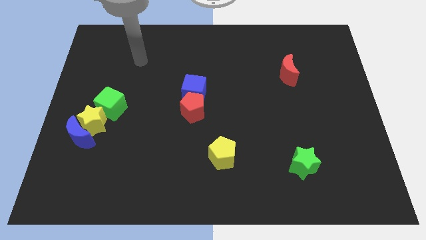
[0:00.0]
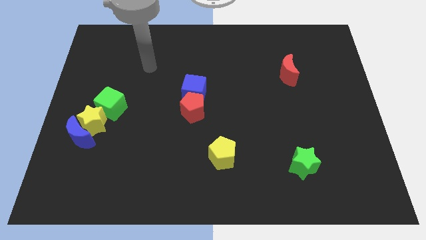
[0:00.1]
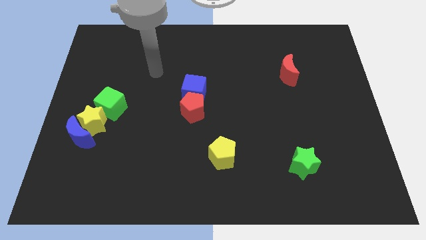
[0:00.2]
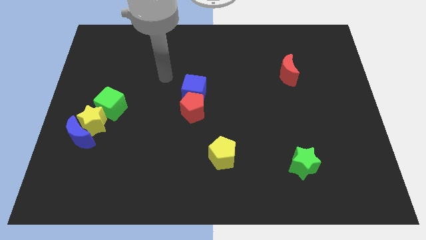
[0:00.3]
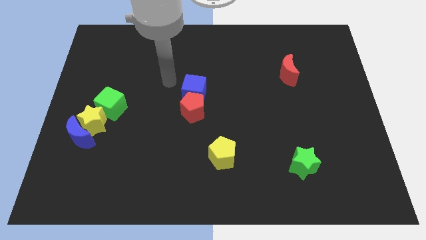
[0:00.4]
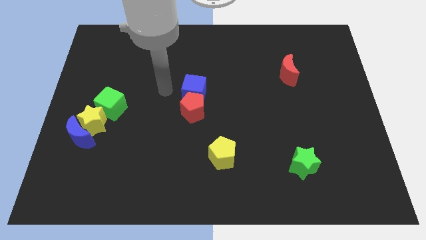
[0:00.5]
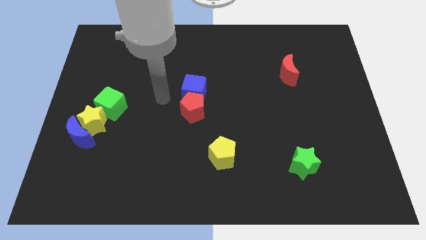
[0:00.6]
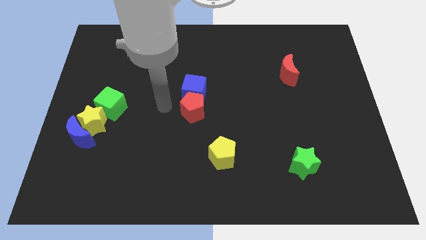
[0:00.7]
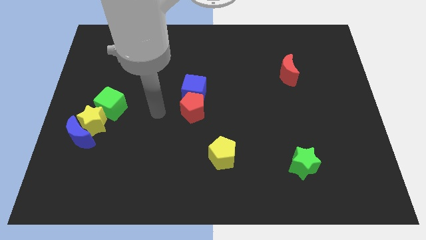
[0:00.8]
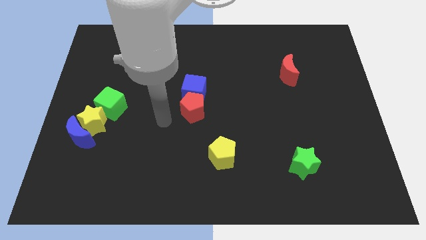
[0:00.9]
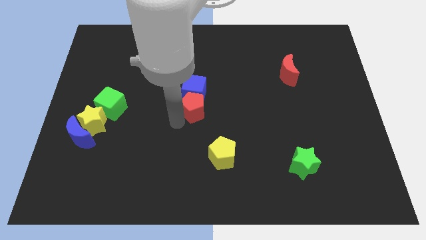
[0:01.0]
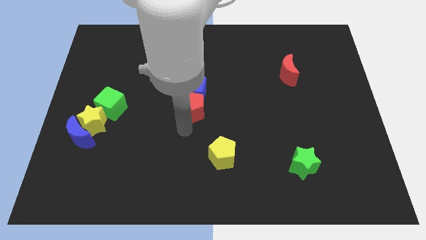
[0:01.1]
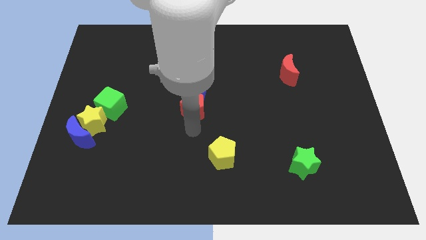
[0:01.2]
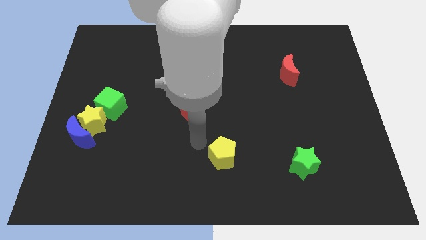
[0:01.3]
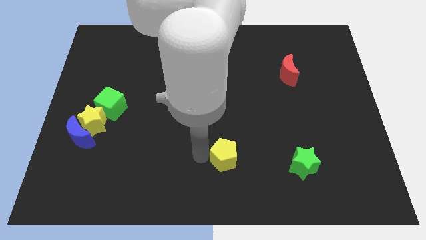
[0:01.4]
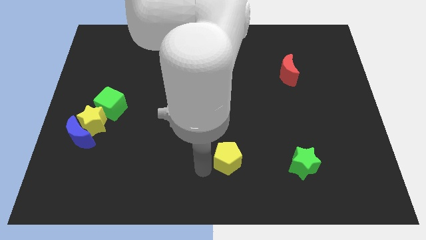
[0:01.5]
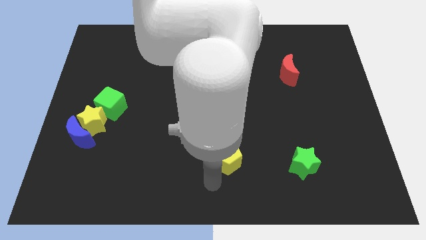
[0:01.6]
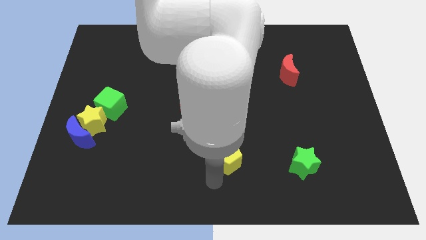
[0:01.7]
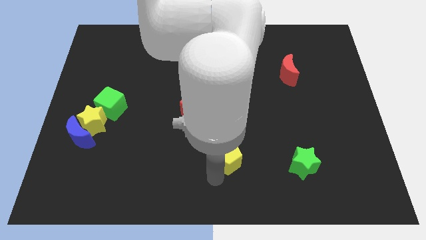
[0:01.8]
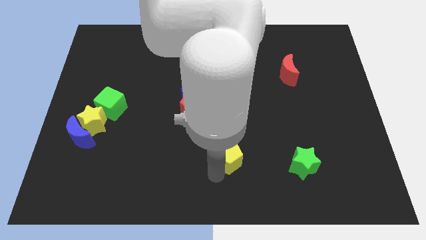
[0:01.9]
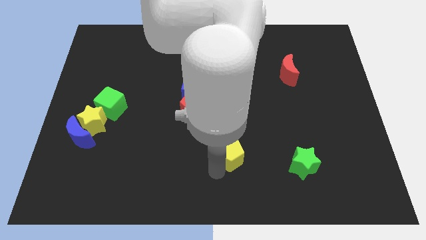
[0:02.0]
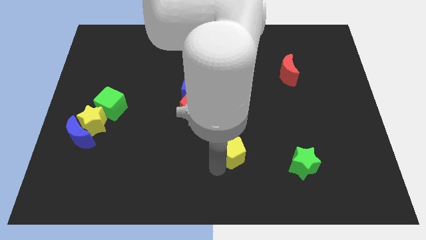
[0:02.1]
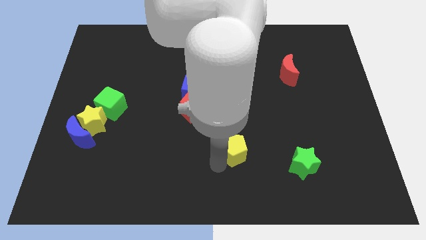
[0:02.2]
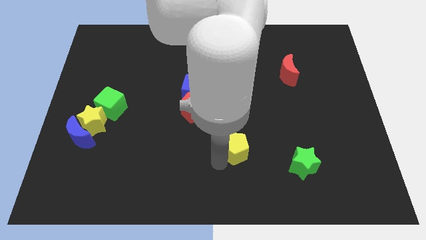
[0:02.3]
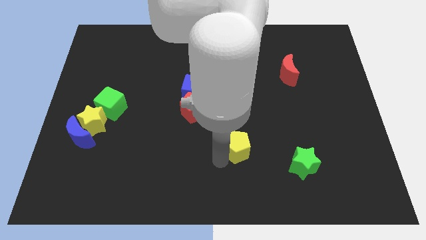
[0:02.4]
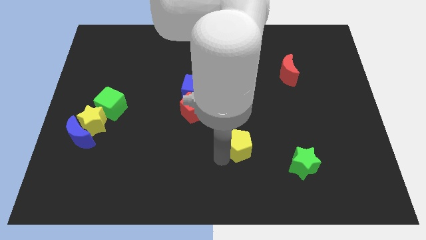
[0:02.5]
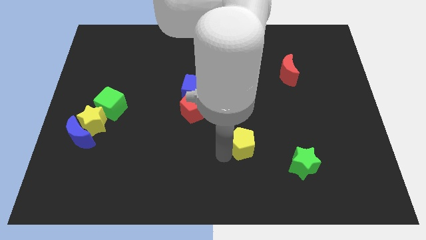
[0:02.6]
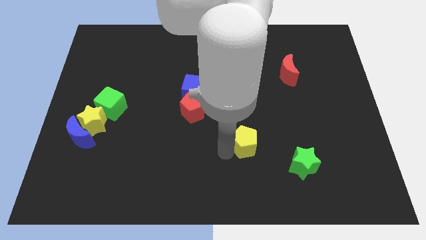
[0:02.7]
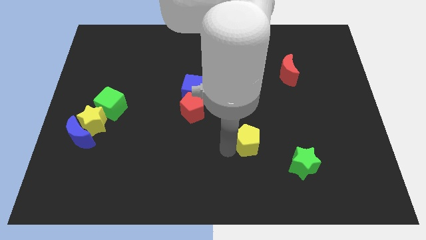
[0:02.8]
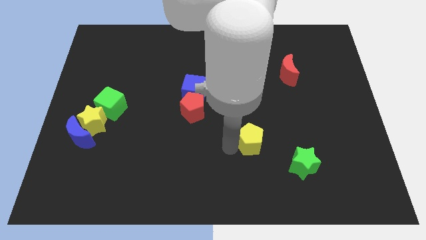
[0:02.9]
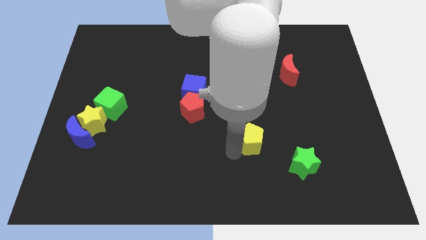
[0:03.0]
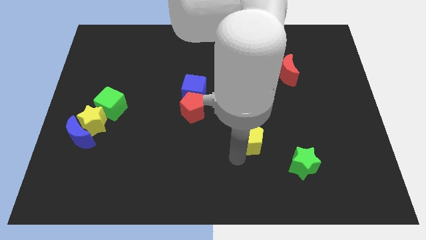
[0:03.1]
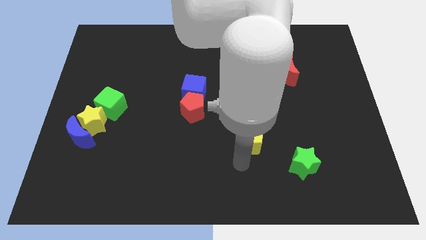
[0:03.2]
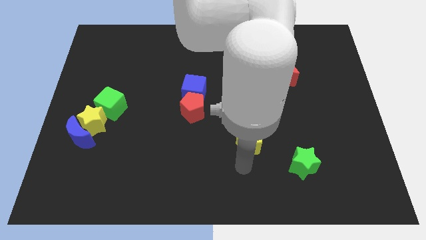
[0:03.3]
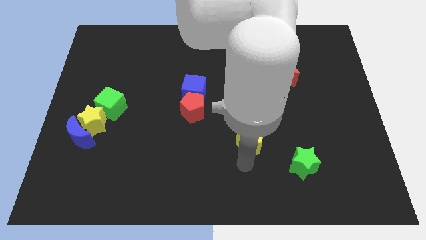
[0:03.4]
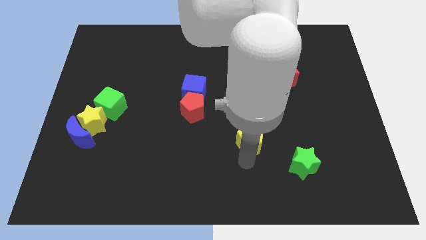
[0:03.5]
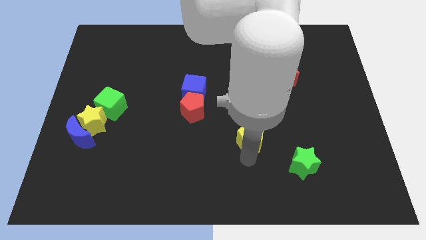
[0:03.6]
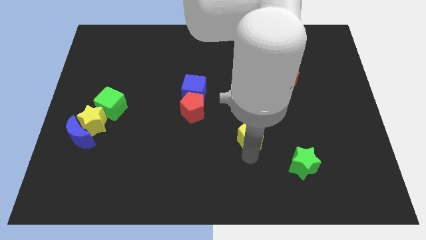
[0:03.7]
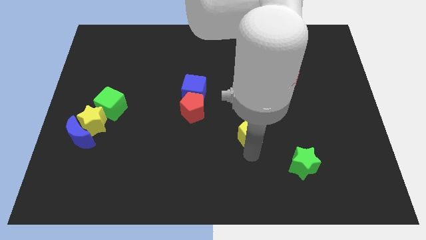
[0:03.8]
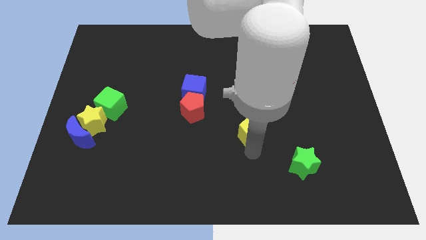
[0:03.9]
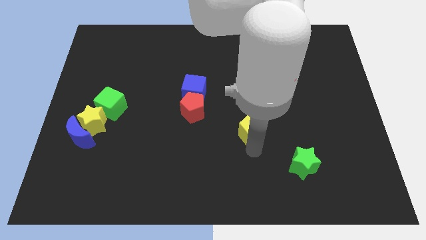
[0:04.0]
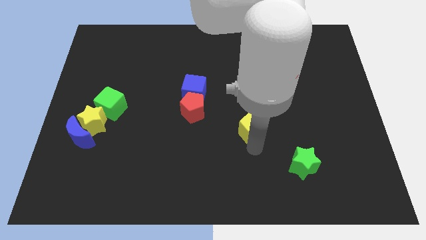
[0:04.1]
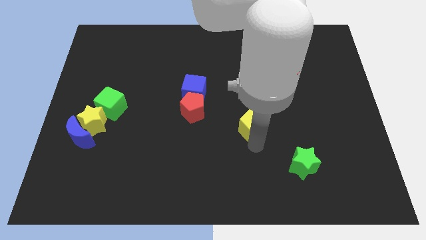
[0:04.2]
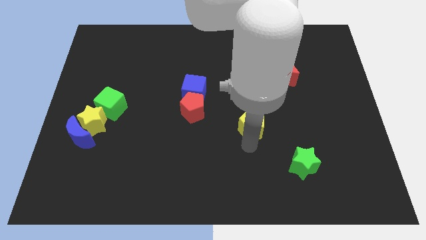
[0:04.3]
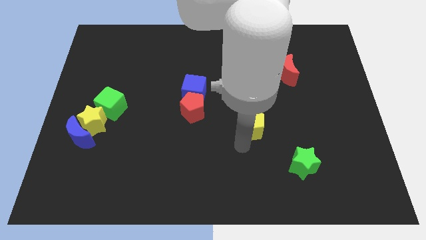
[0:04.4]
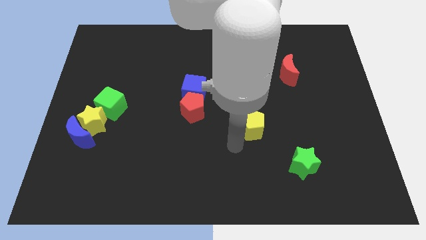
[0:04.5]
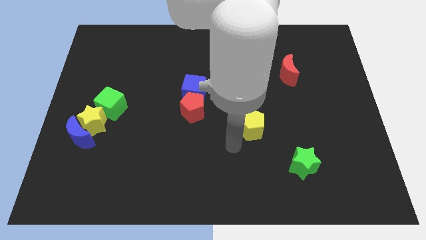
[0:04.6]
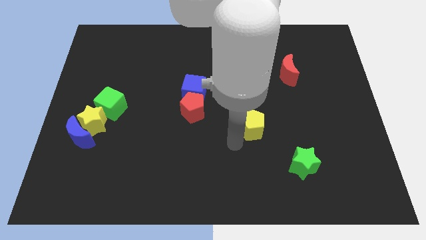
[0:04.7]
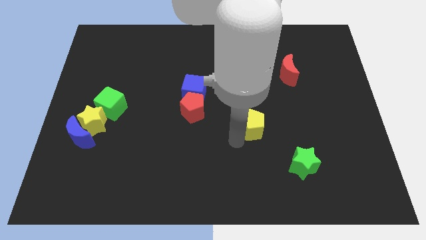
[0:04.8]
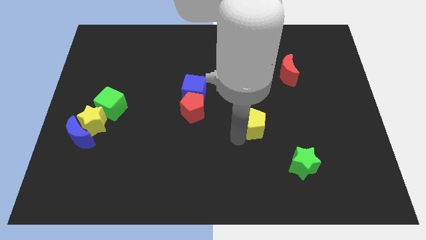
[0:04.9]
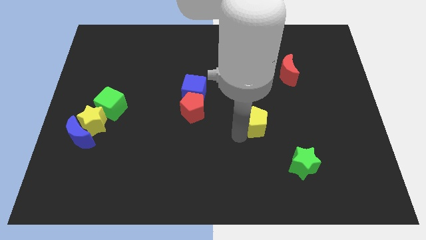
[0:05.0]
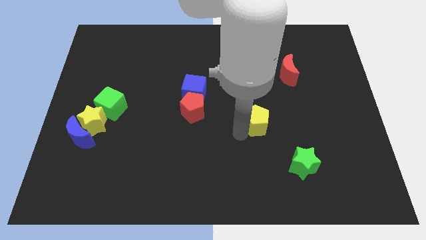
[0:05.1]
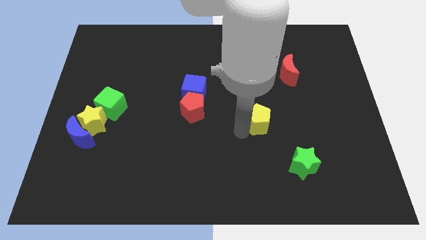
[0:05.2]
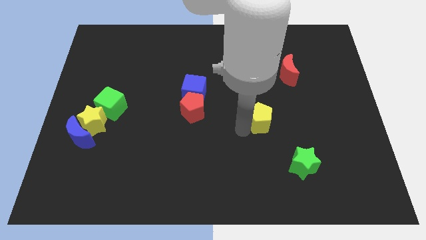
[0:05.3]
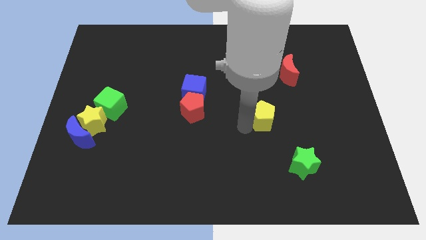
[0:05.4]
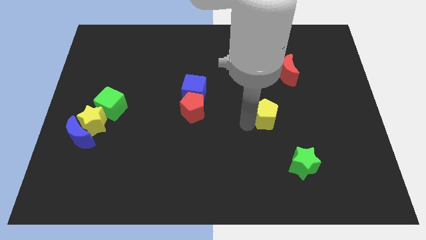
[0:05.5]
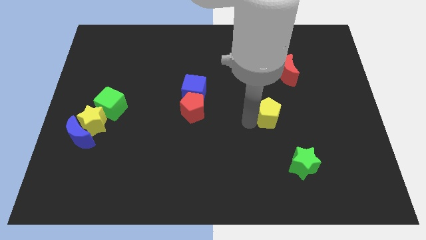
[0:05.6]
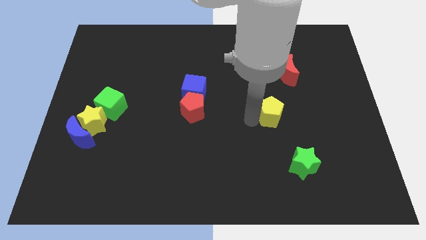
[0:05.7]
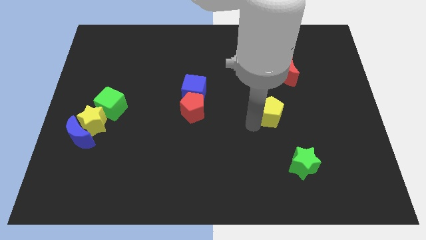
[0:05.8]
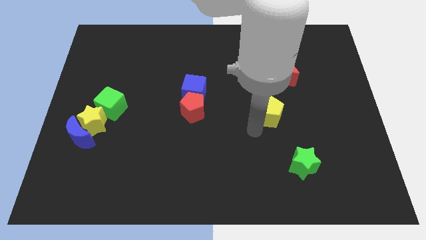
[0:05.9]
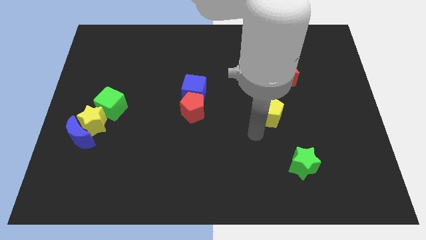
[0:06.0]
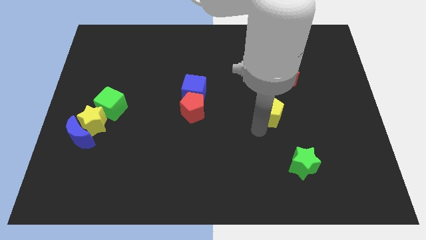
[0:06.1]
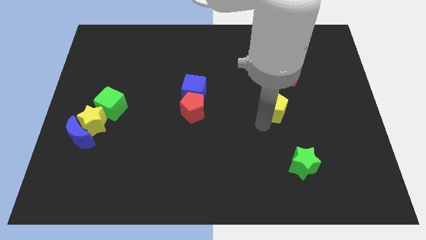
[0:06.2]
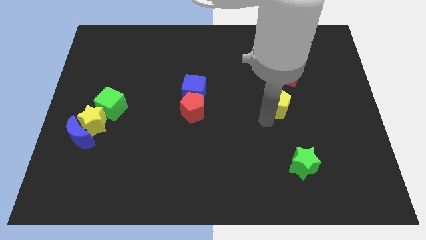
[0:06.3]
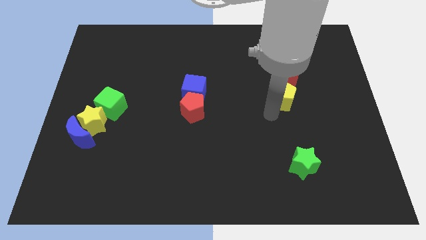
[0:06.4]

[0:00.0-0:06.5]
move the yellow pentagon up and right

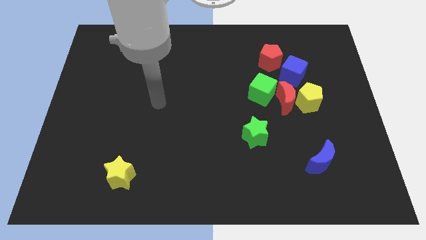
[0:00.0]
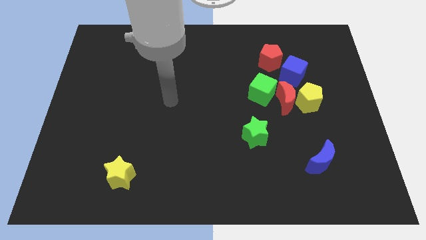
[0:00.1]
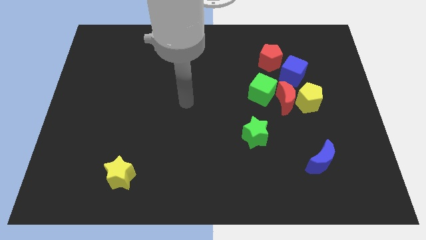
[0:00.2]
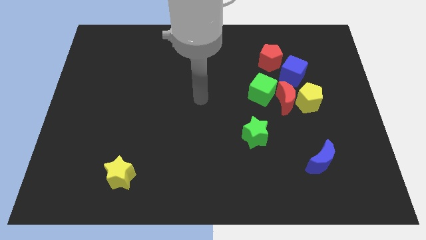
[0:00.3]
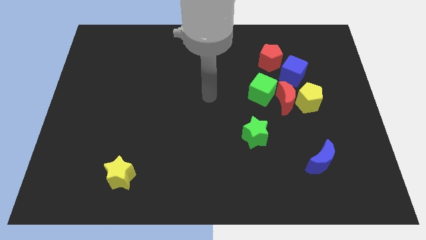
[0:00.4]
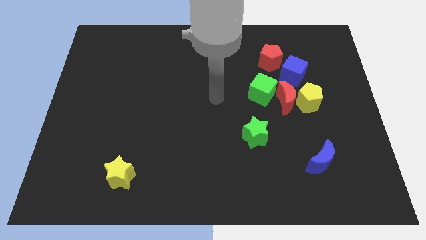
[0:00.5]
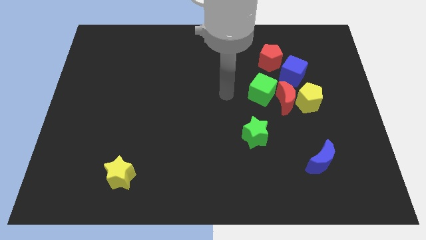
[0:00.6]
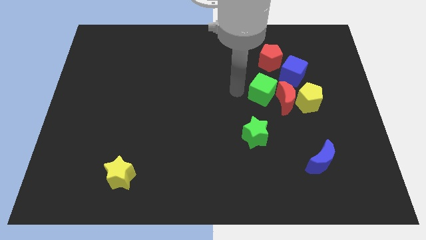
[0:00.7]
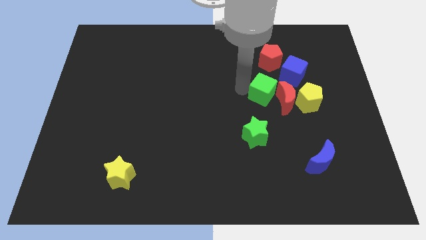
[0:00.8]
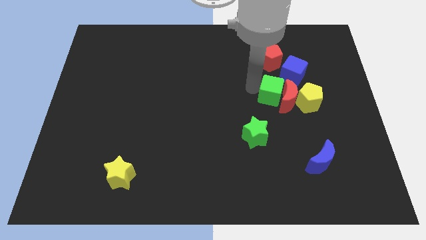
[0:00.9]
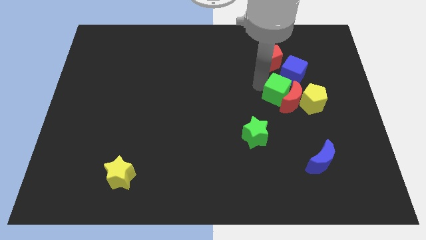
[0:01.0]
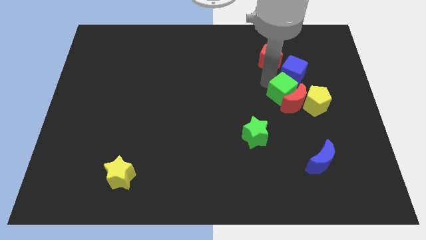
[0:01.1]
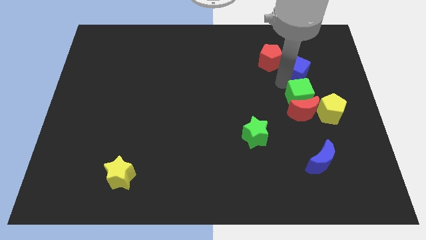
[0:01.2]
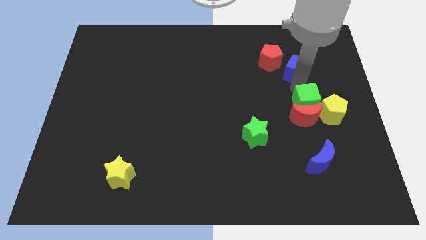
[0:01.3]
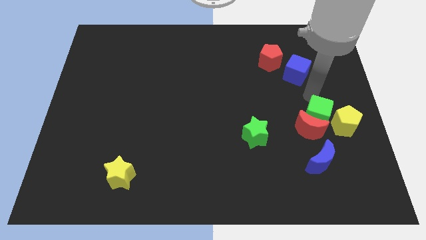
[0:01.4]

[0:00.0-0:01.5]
slightly push the red moon downwards
